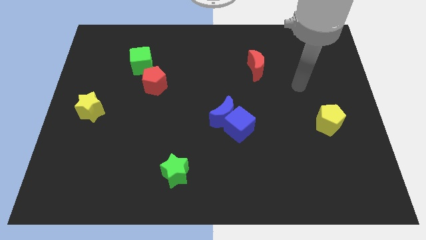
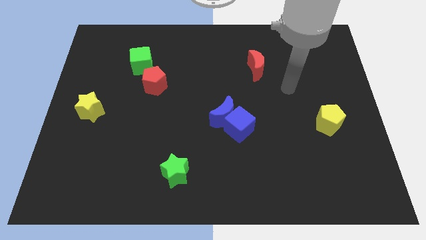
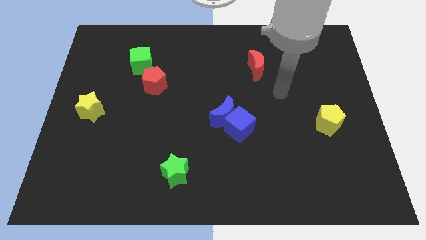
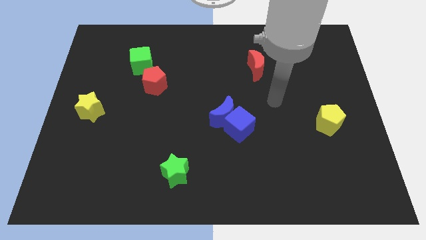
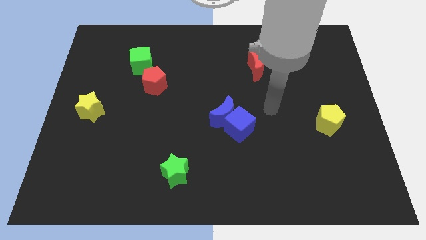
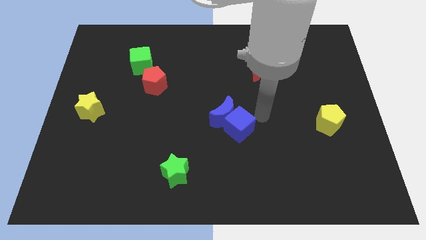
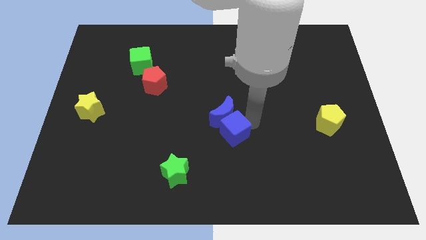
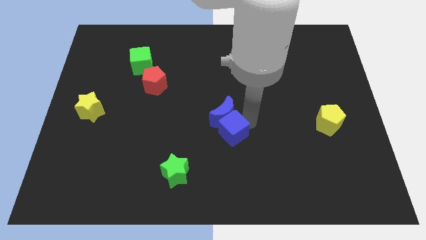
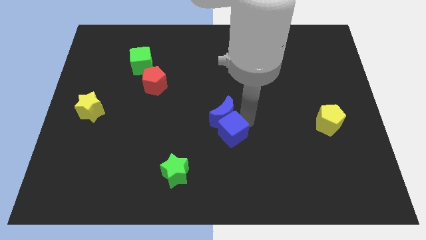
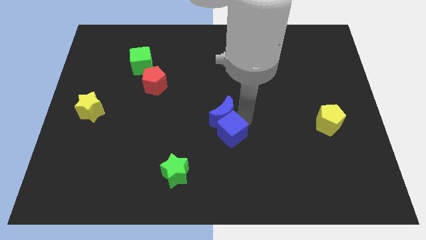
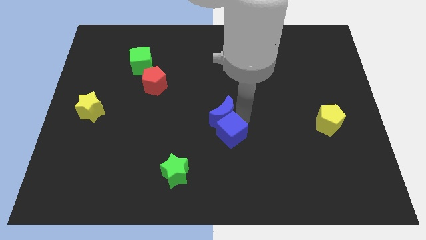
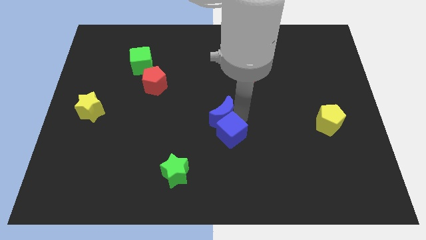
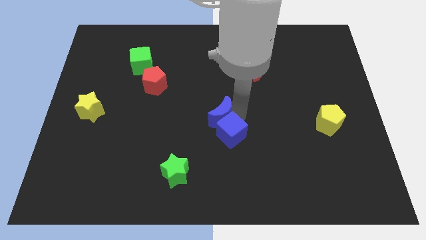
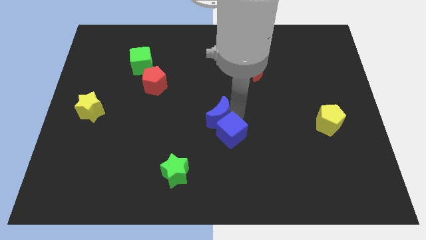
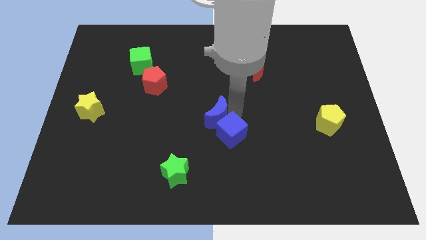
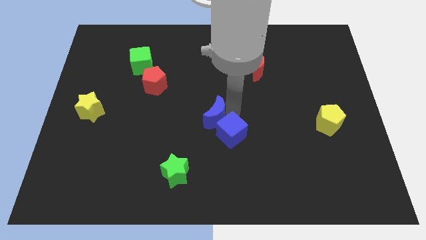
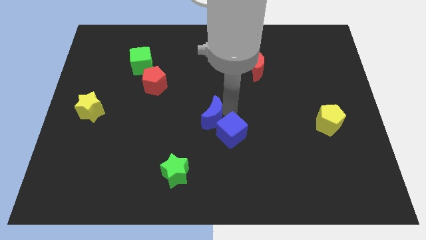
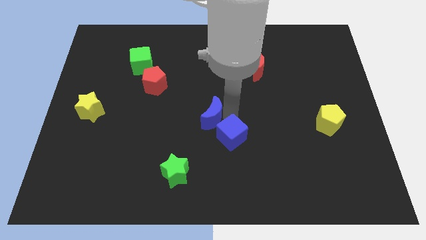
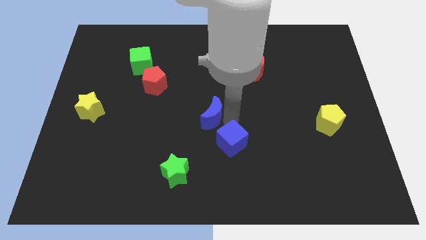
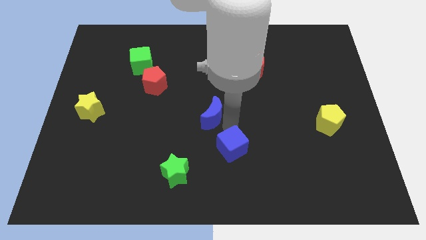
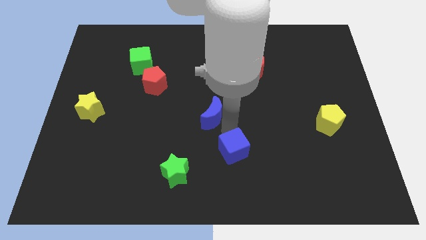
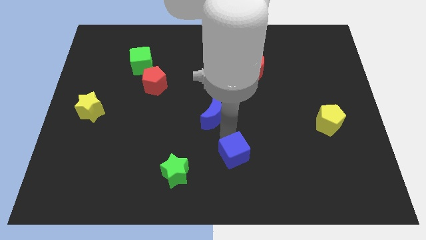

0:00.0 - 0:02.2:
separate the blue moon from the blue cube

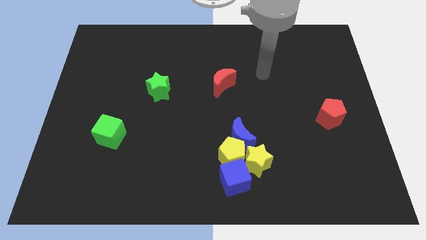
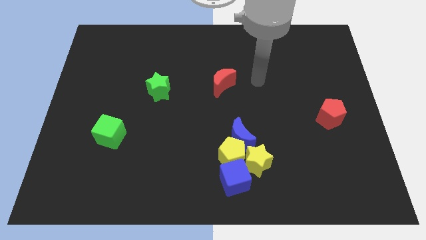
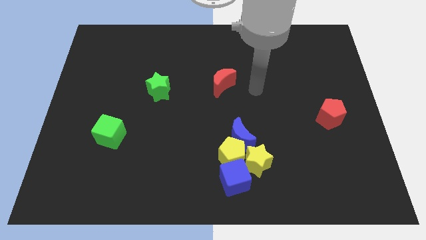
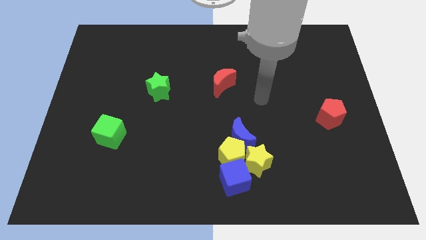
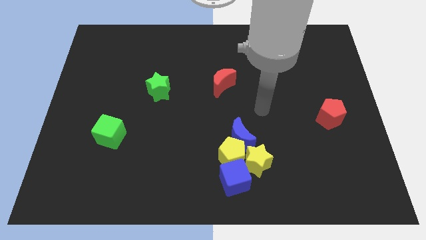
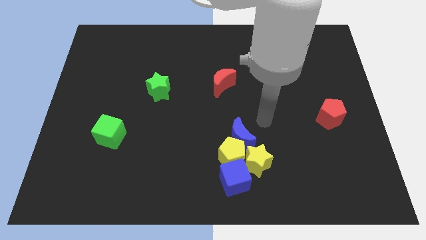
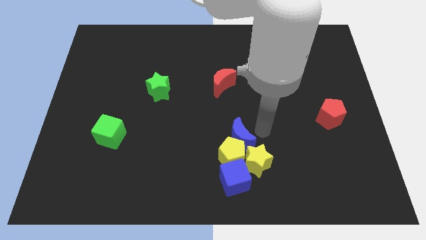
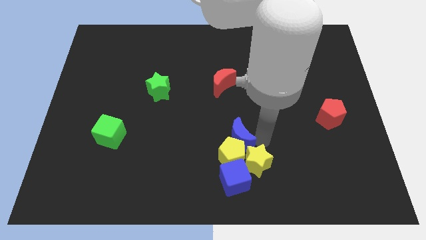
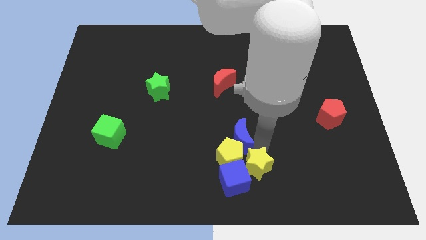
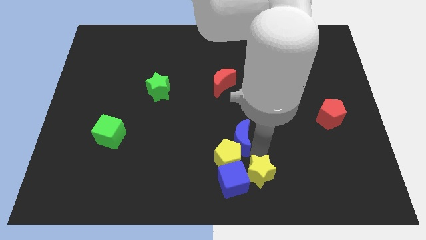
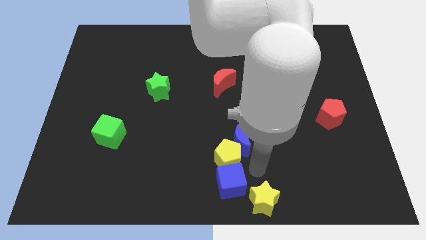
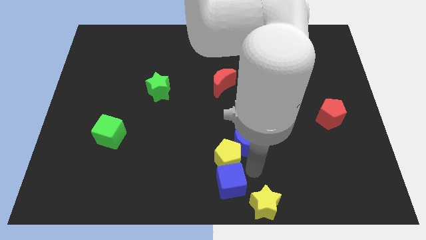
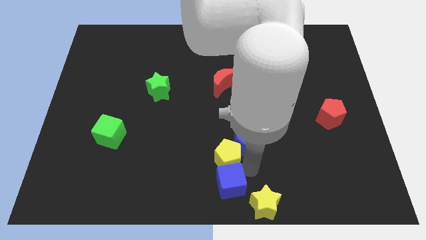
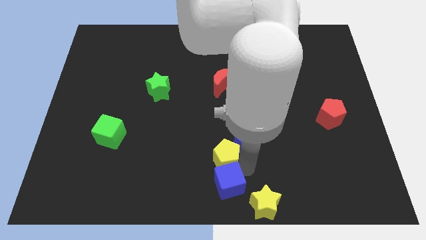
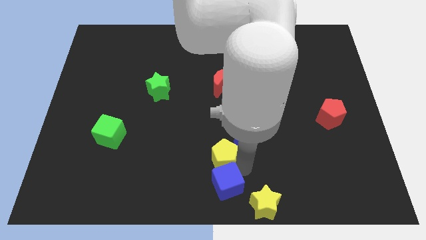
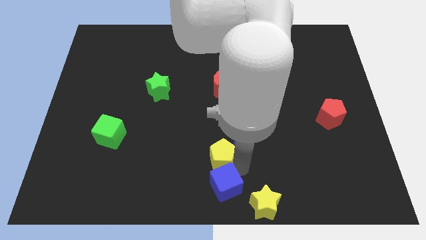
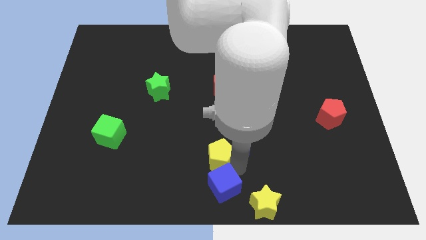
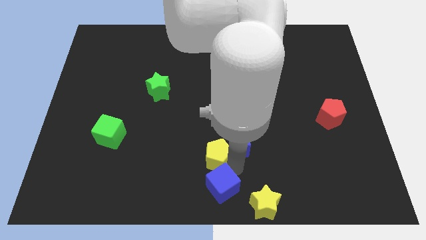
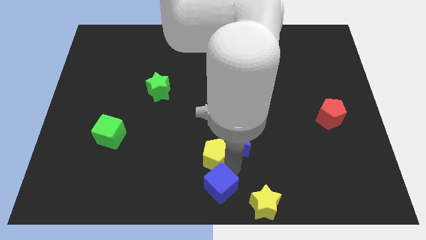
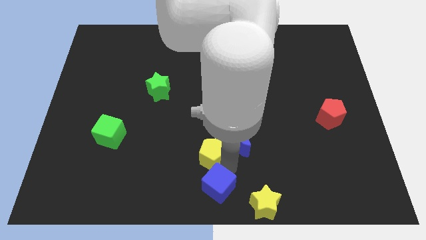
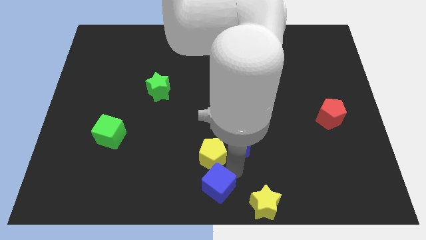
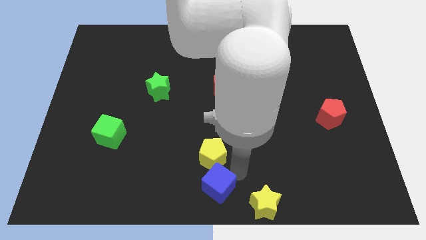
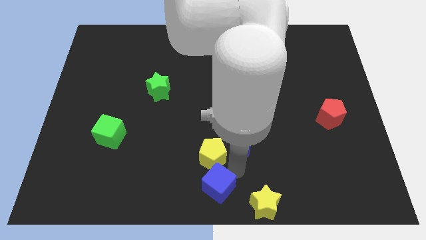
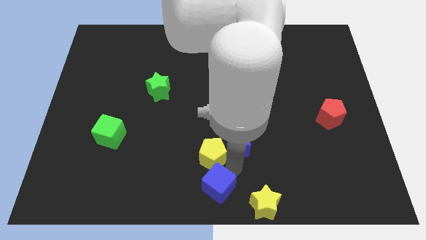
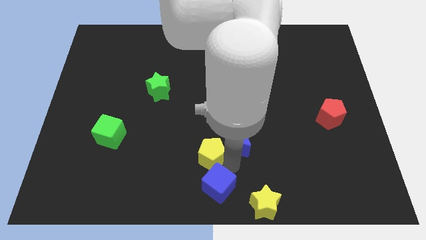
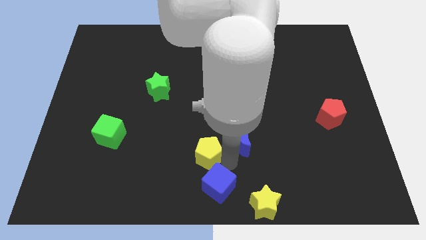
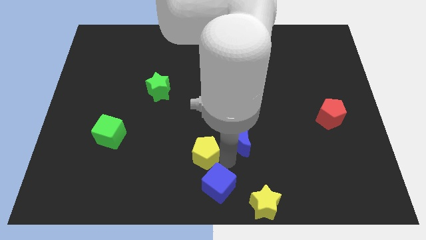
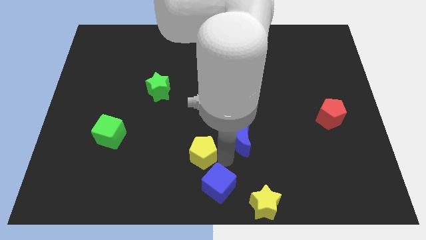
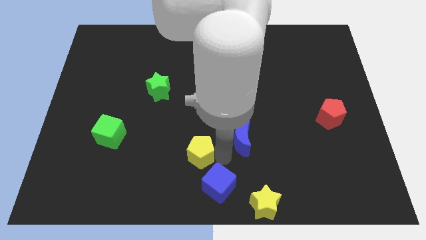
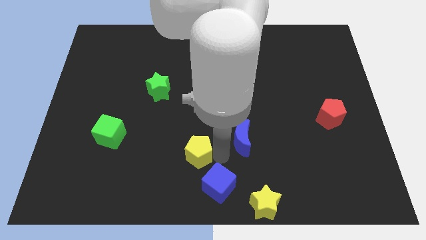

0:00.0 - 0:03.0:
separate the yellow pentagon from the blue moon, yellow star, and blue cube

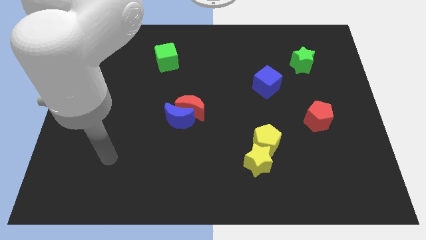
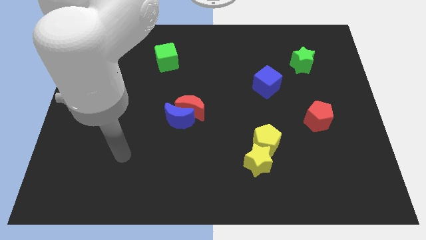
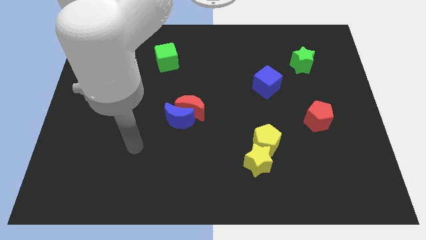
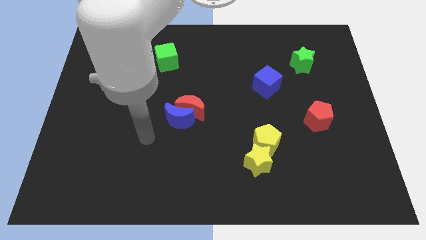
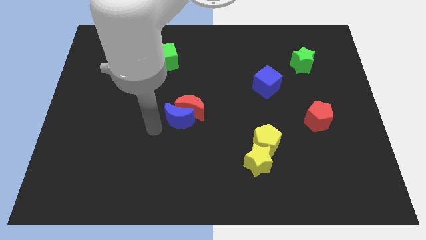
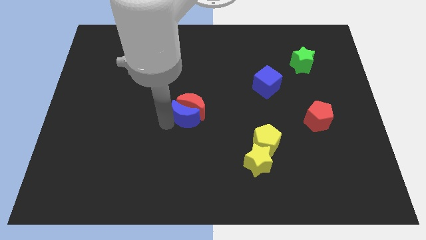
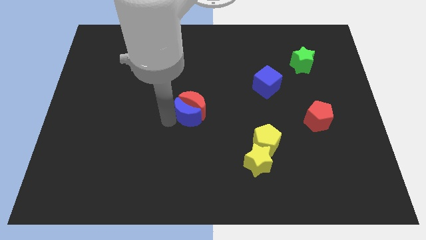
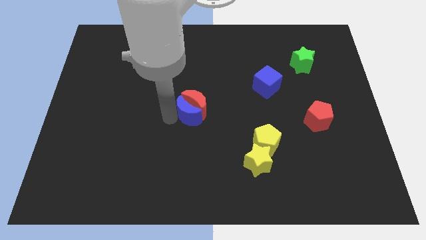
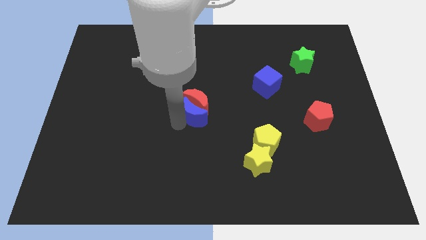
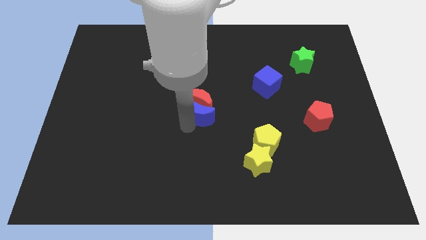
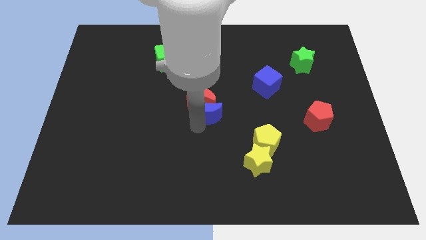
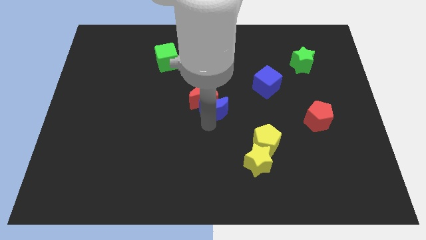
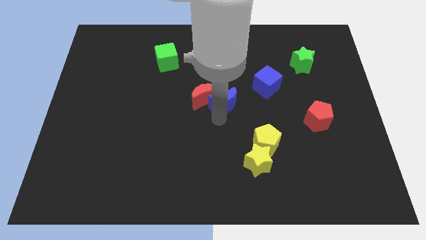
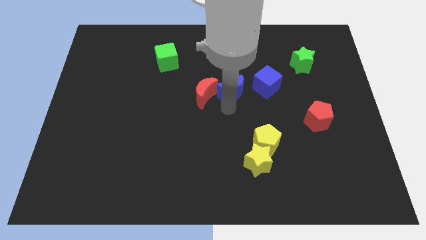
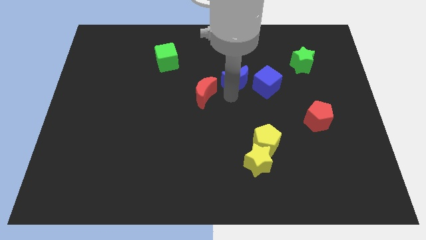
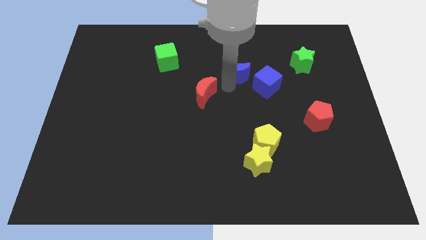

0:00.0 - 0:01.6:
move the red moon away from the blue moon

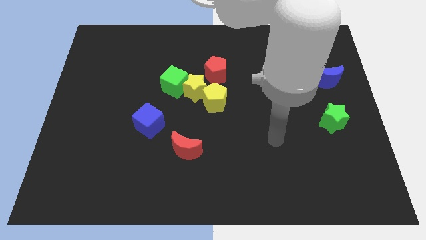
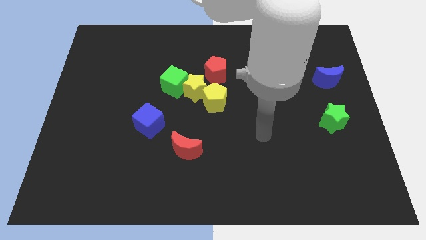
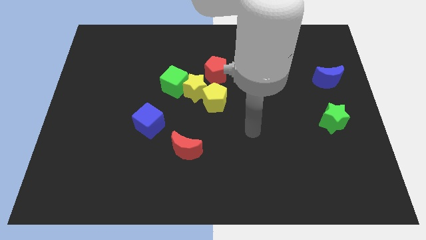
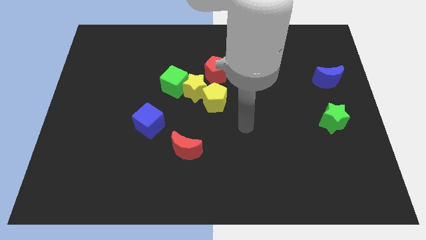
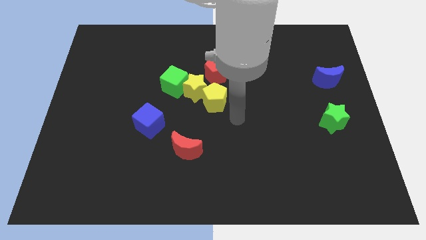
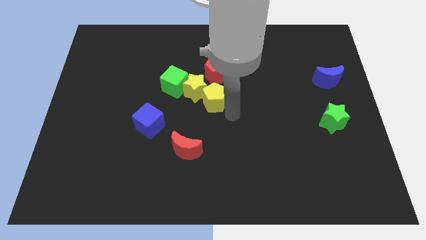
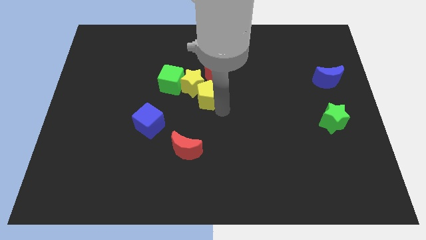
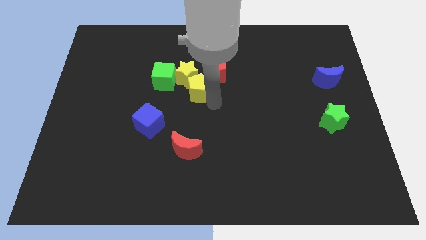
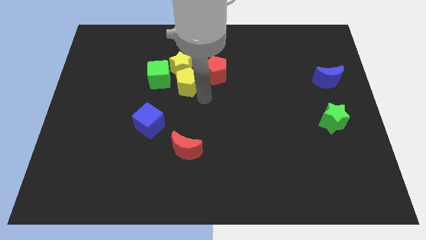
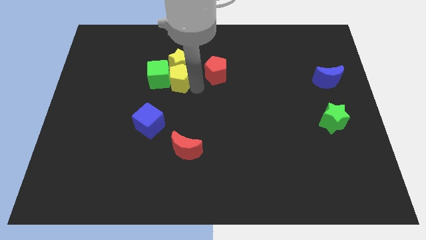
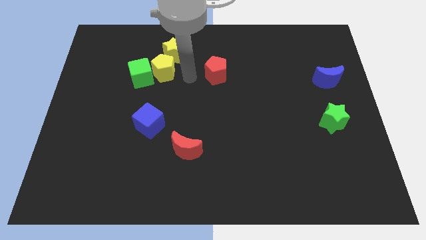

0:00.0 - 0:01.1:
pull the green cube apart from the yellow star

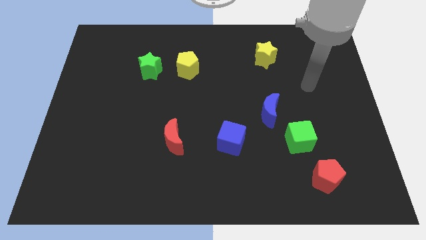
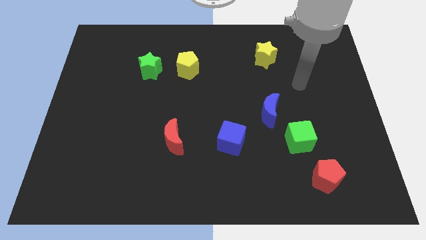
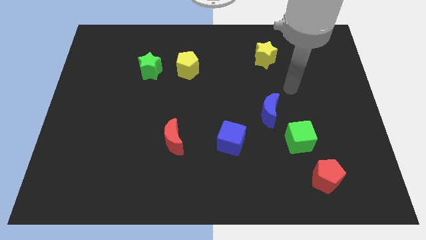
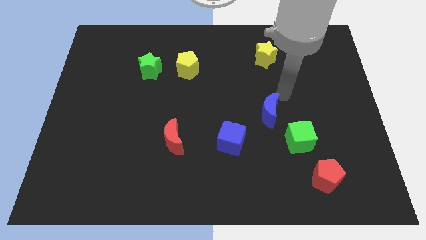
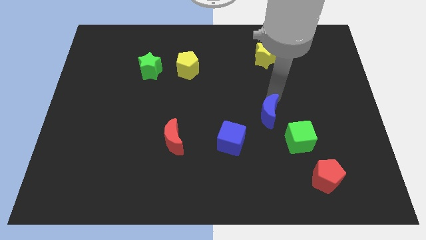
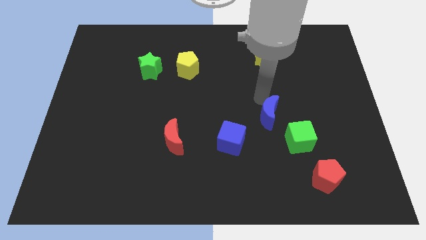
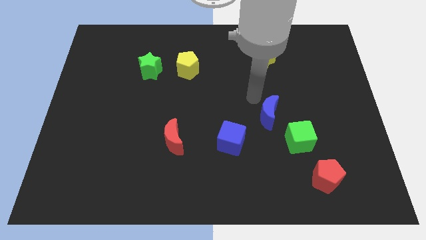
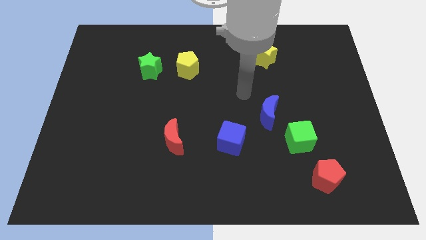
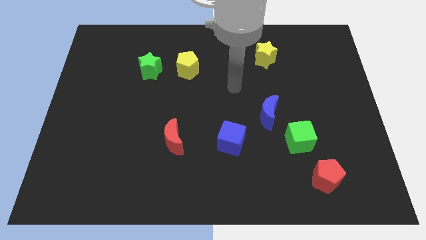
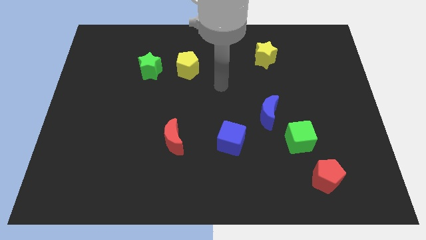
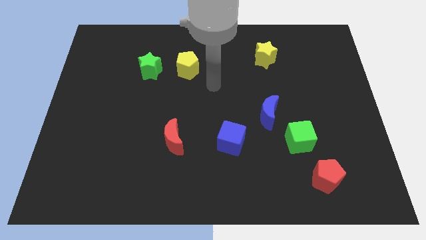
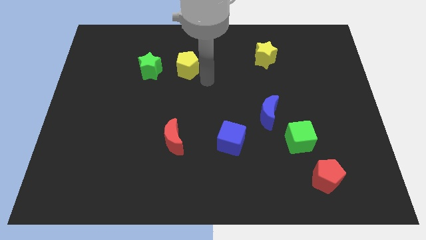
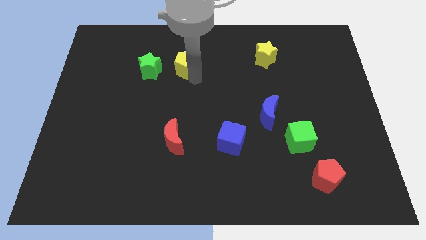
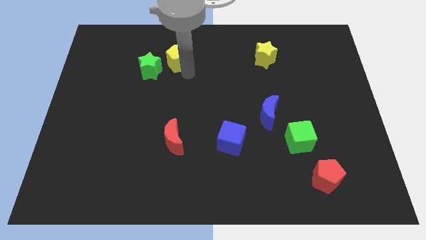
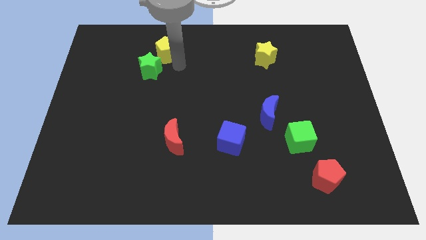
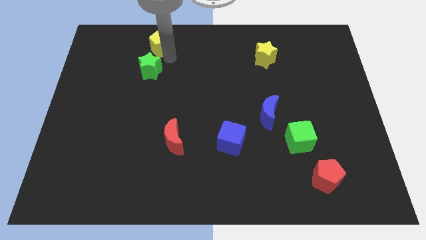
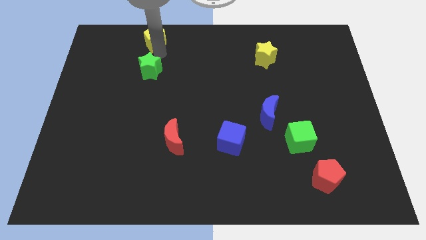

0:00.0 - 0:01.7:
pull the green star apart from the yellow pentagon
